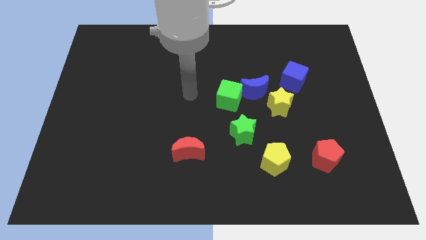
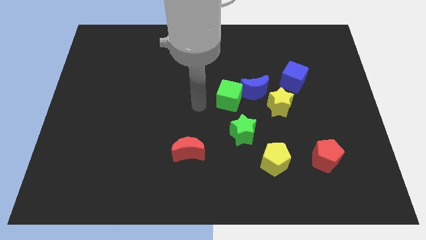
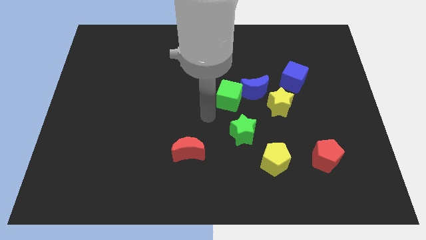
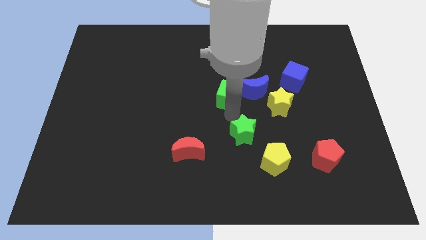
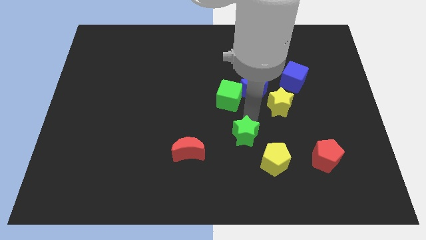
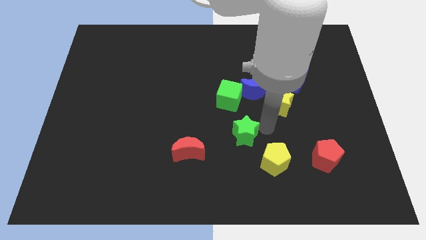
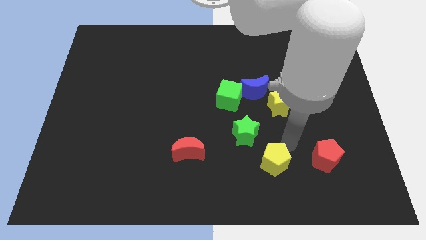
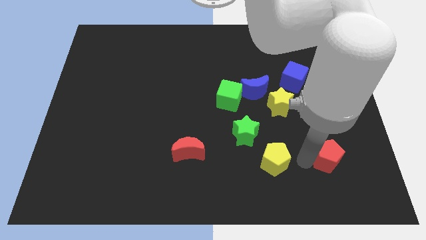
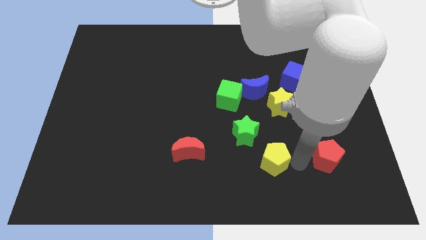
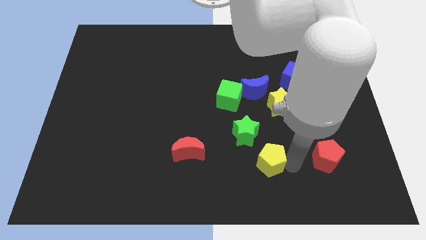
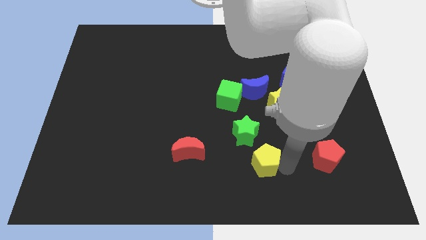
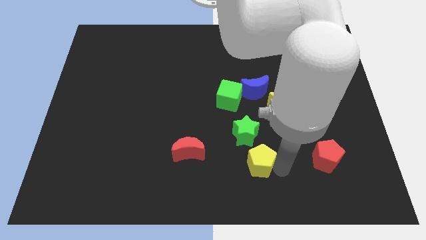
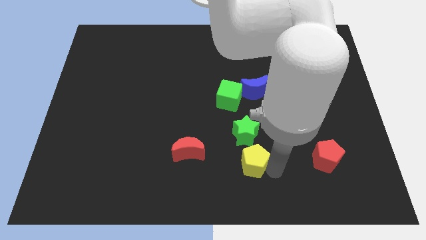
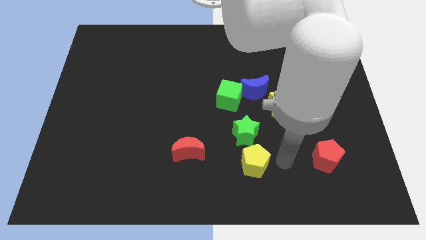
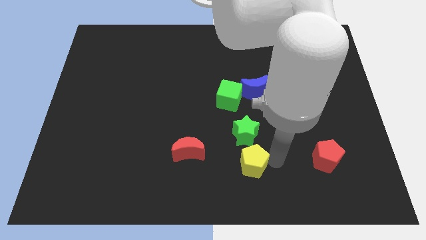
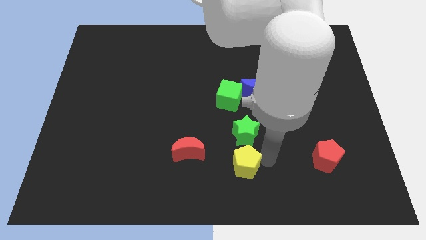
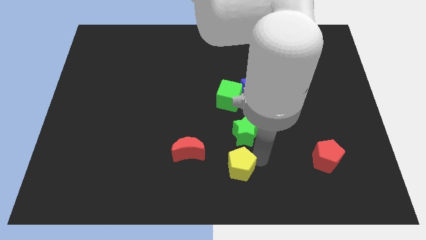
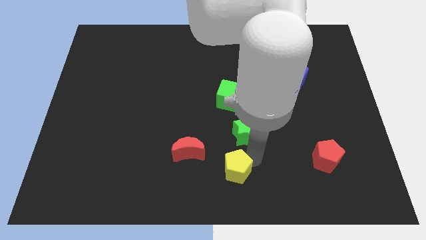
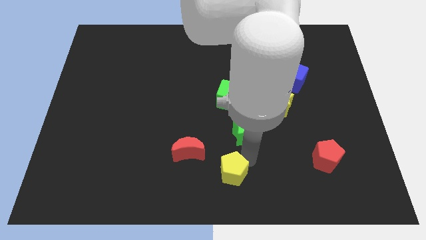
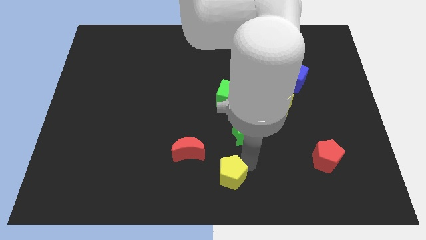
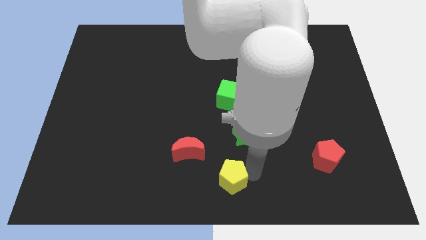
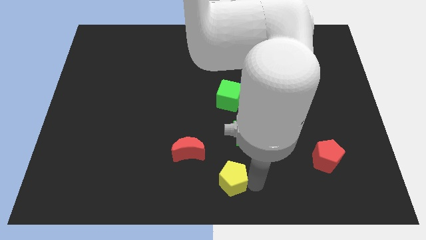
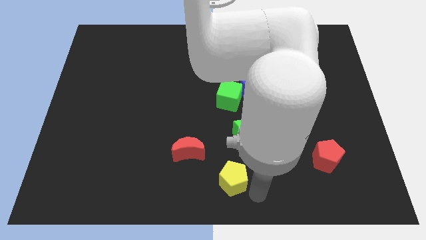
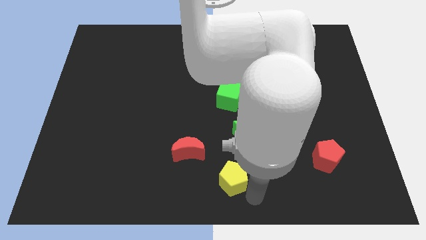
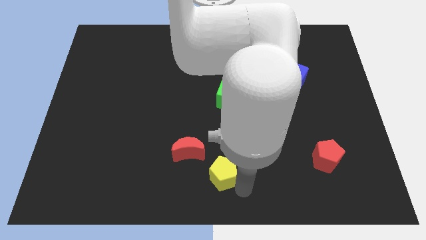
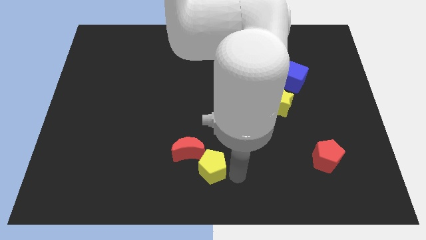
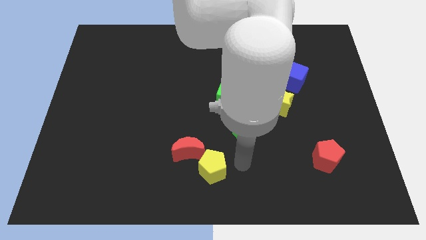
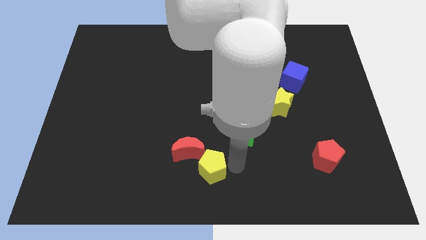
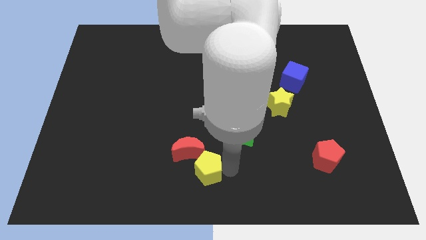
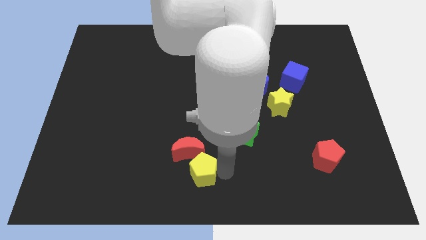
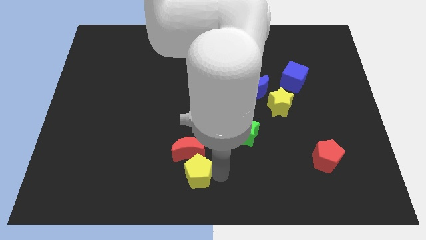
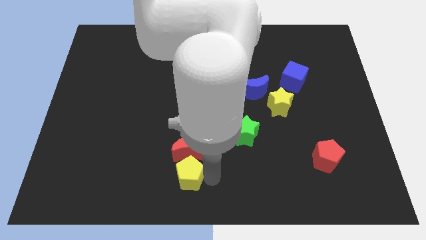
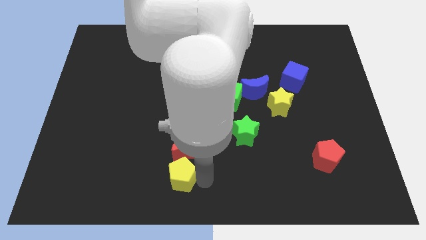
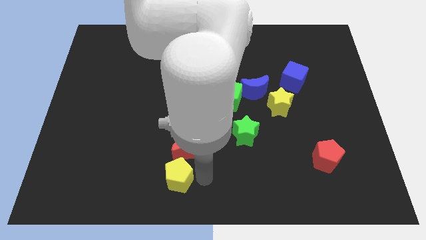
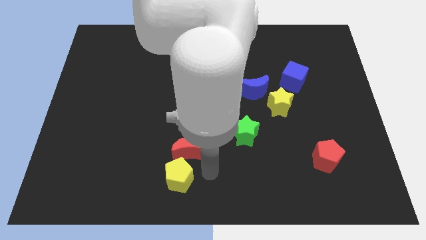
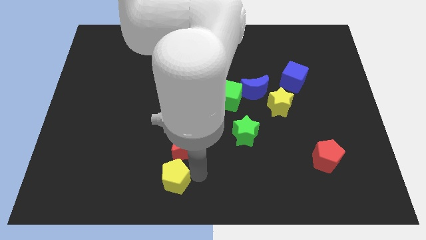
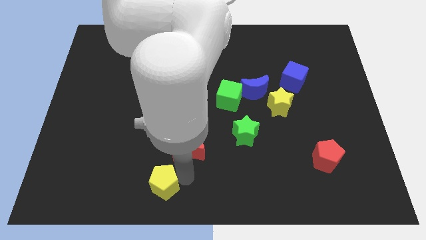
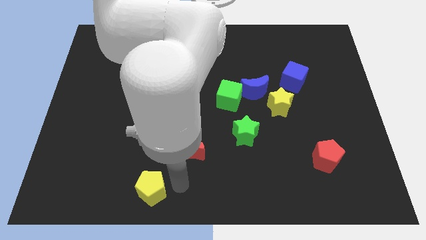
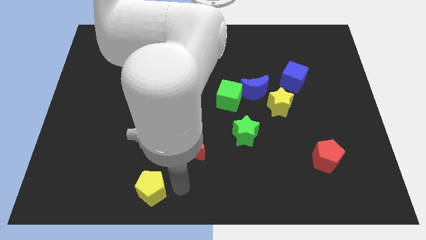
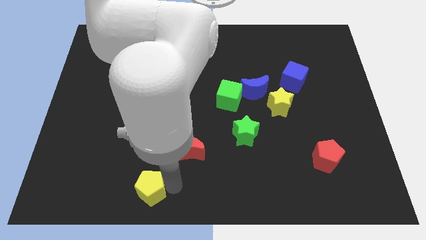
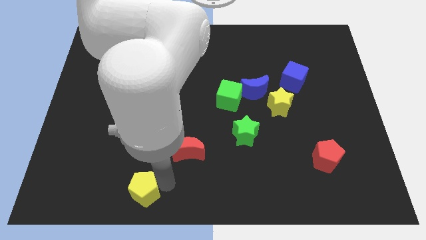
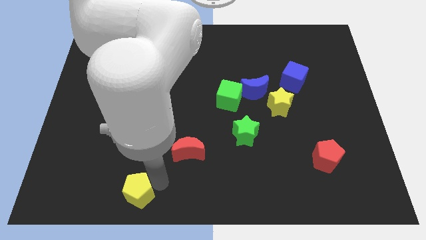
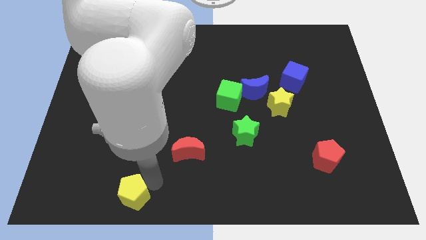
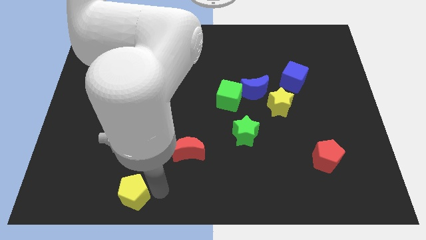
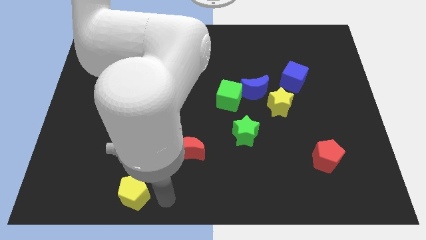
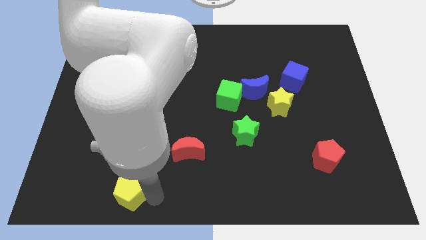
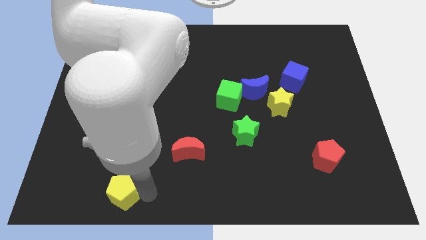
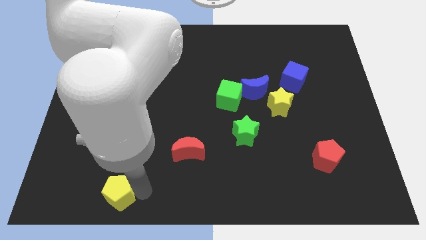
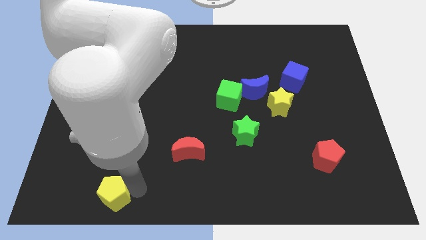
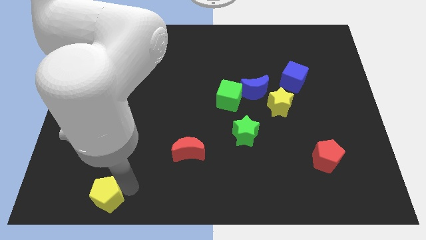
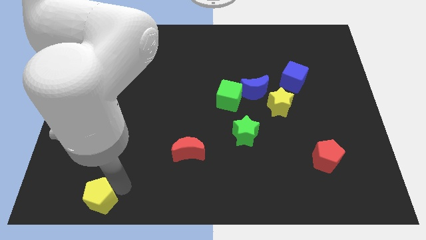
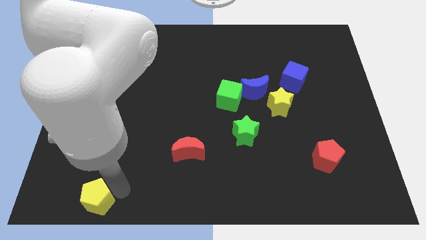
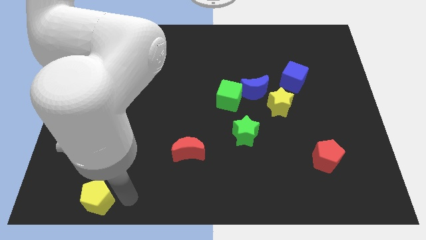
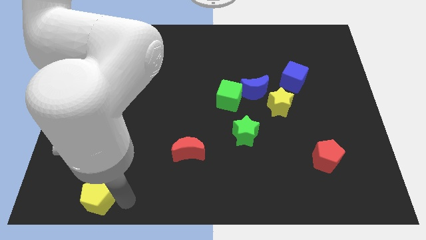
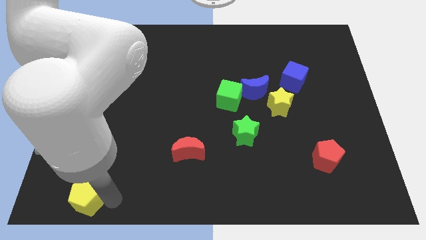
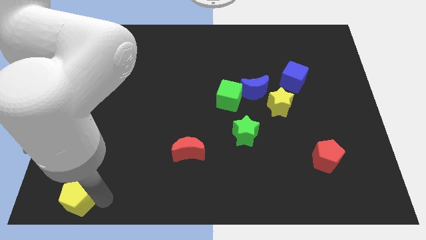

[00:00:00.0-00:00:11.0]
push the yellow pentagon to the bottom left
